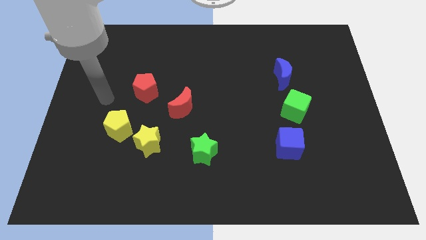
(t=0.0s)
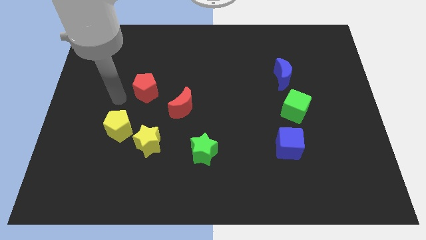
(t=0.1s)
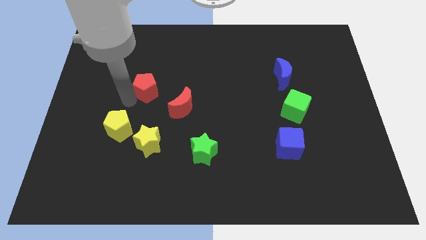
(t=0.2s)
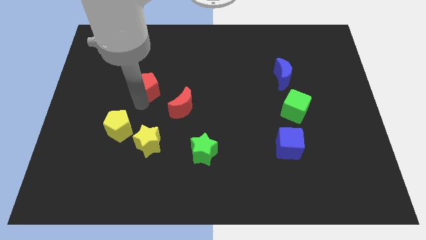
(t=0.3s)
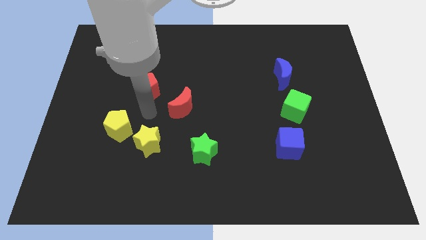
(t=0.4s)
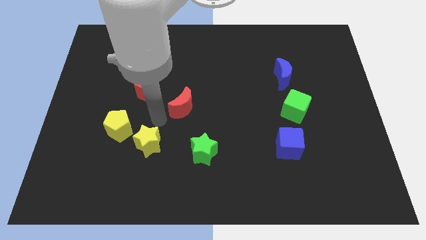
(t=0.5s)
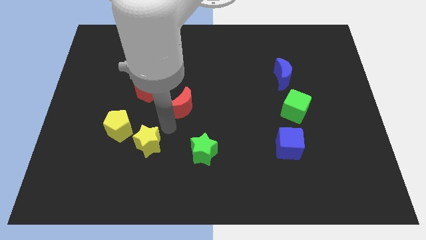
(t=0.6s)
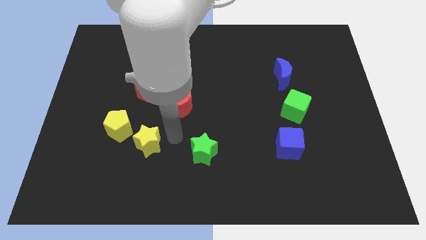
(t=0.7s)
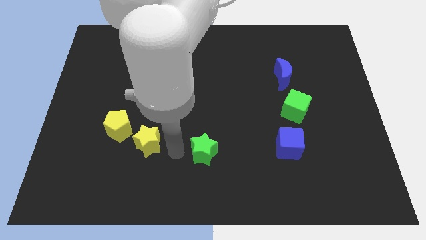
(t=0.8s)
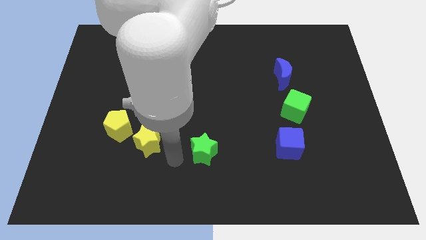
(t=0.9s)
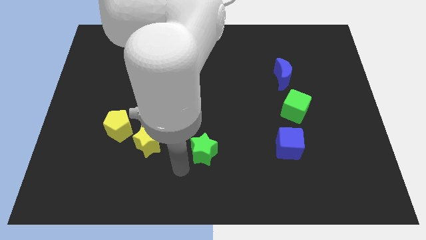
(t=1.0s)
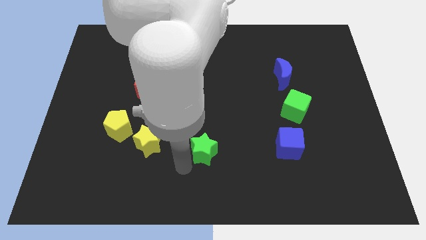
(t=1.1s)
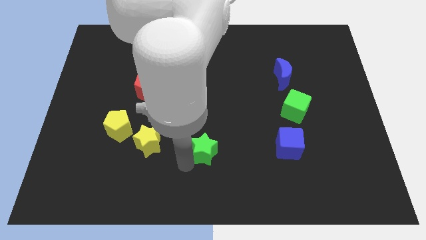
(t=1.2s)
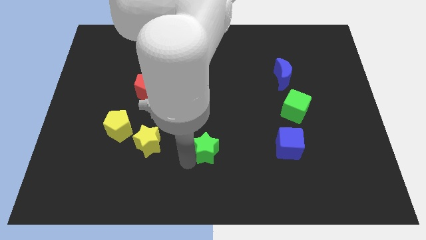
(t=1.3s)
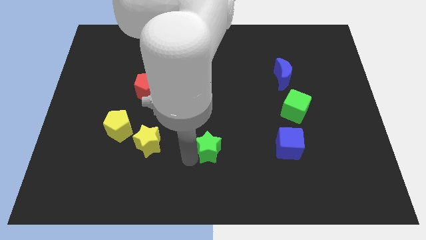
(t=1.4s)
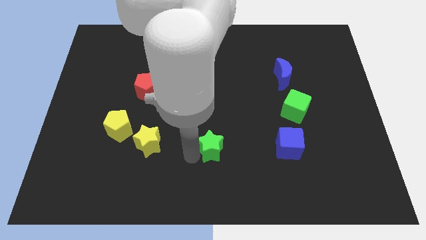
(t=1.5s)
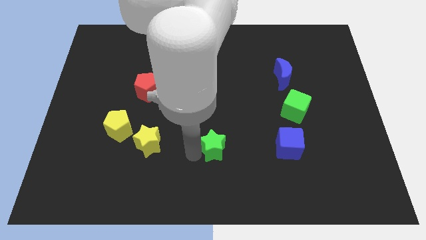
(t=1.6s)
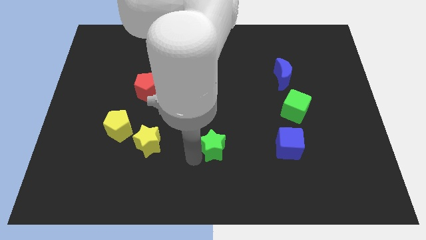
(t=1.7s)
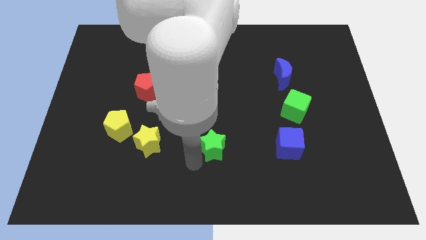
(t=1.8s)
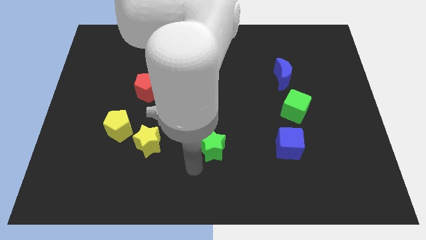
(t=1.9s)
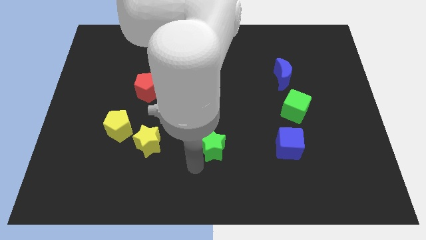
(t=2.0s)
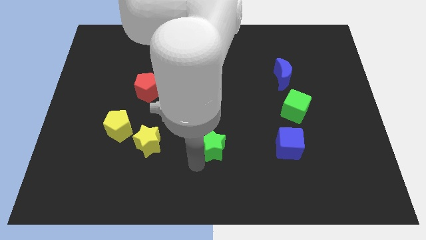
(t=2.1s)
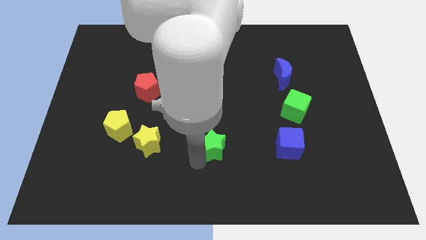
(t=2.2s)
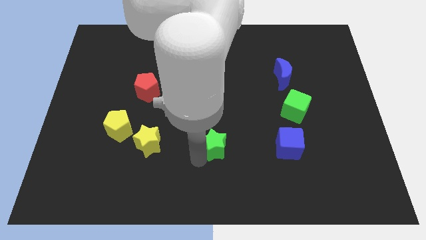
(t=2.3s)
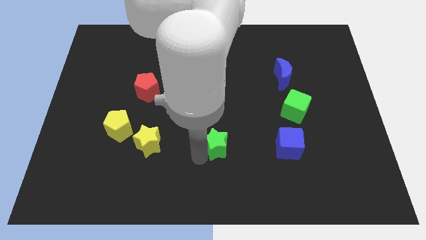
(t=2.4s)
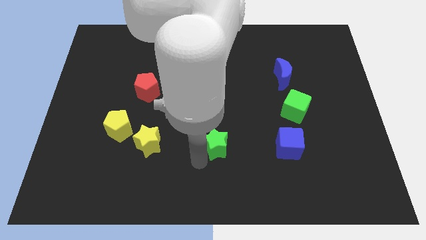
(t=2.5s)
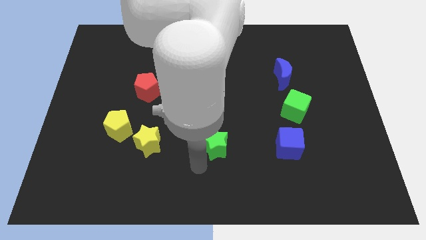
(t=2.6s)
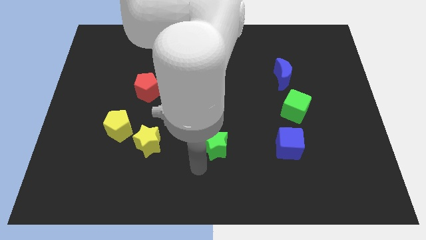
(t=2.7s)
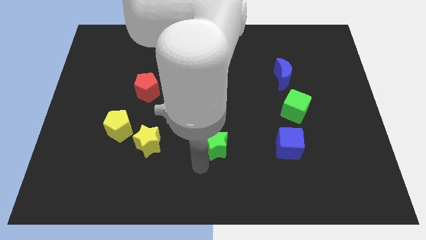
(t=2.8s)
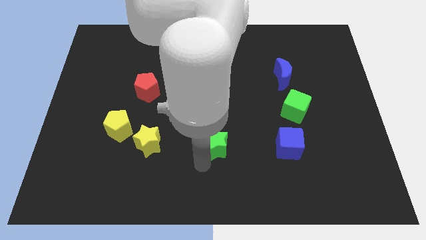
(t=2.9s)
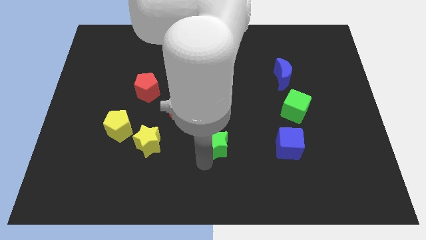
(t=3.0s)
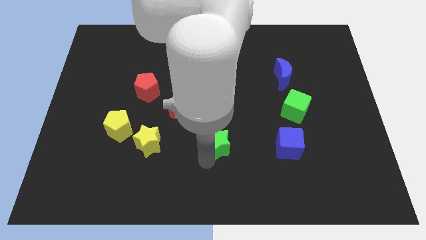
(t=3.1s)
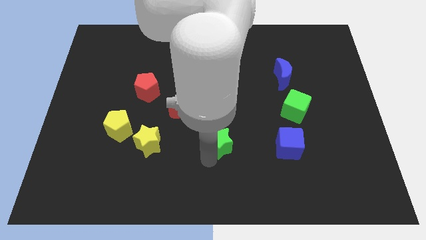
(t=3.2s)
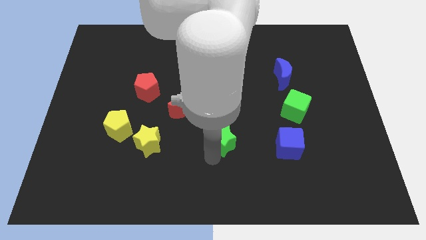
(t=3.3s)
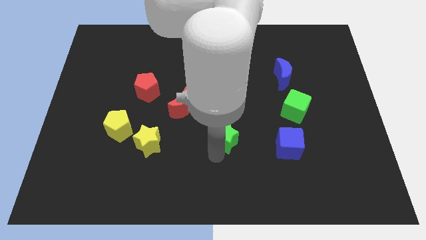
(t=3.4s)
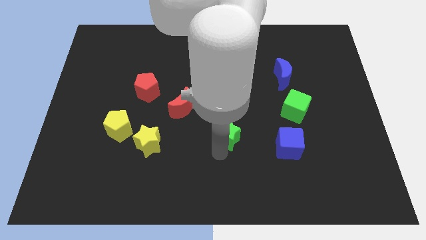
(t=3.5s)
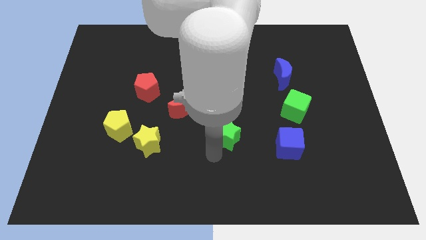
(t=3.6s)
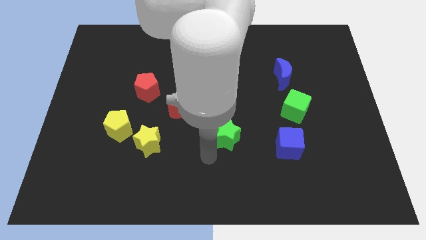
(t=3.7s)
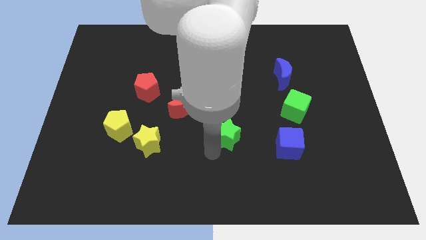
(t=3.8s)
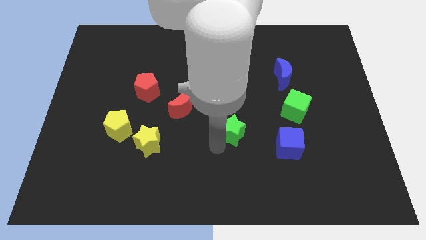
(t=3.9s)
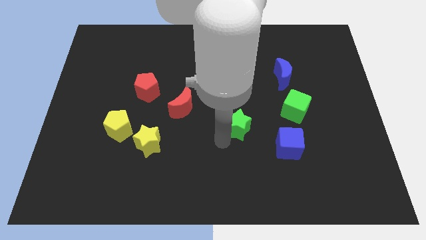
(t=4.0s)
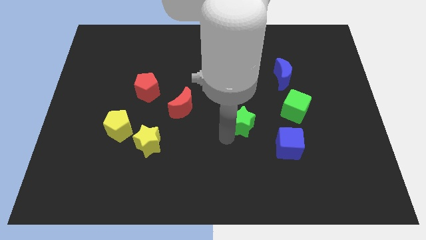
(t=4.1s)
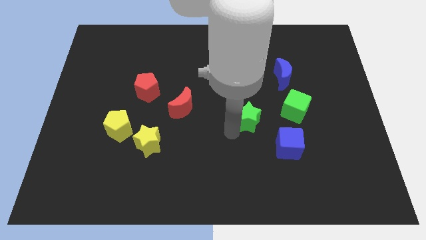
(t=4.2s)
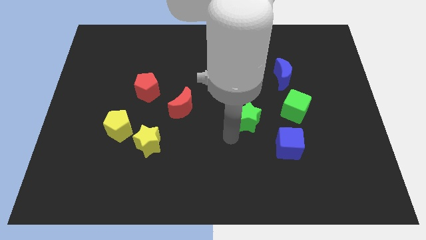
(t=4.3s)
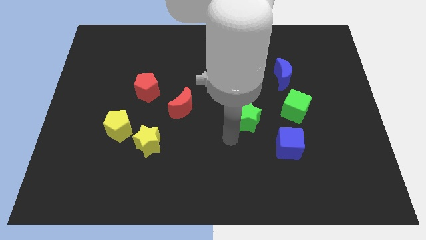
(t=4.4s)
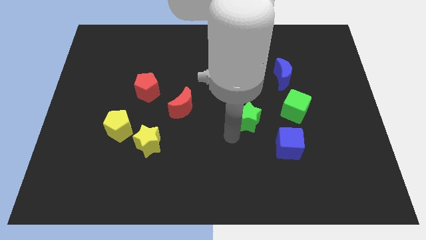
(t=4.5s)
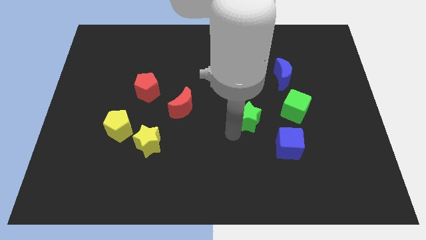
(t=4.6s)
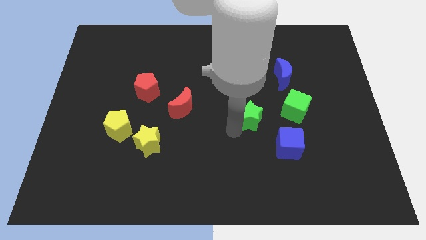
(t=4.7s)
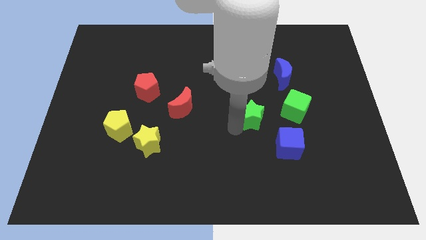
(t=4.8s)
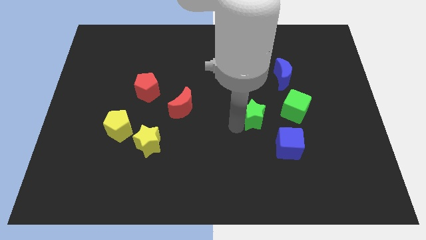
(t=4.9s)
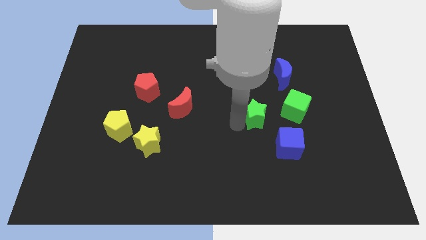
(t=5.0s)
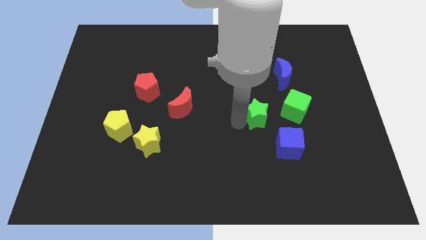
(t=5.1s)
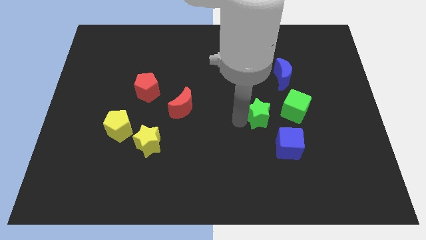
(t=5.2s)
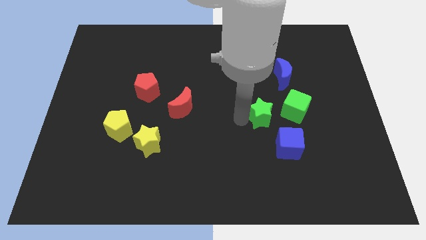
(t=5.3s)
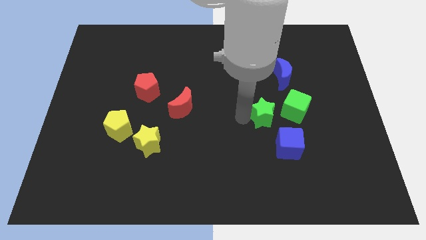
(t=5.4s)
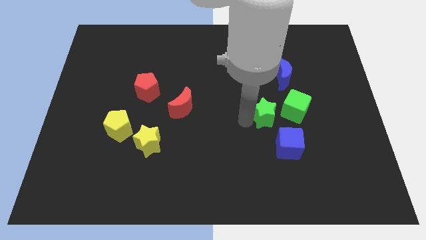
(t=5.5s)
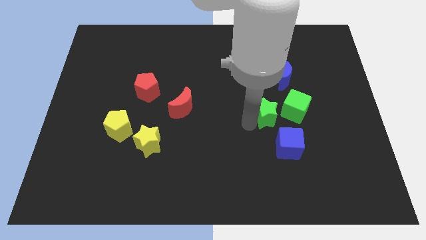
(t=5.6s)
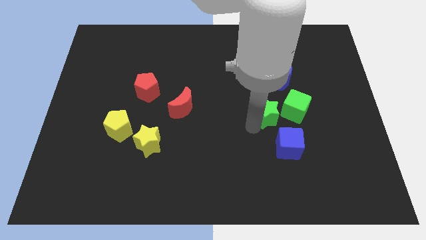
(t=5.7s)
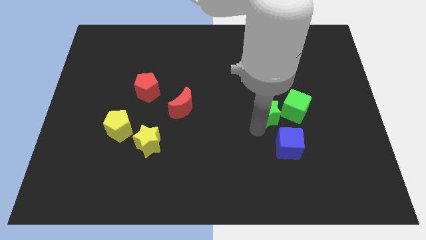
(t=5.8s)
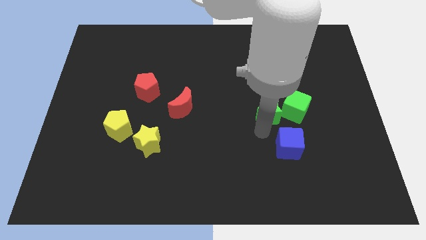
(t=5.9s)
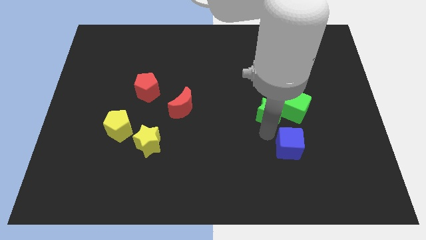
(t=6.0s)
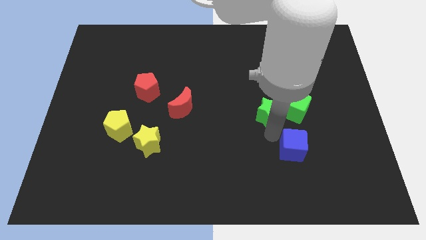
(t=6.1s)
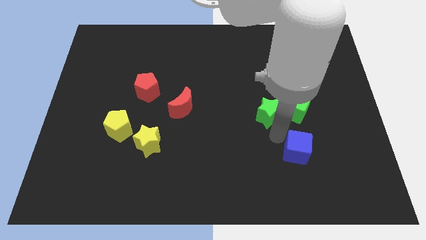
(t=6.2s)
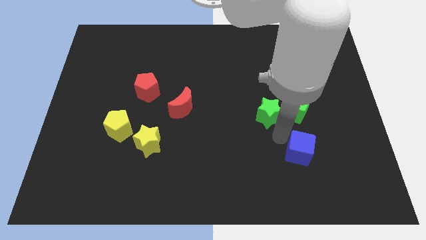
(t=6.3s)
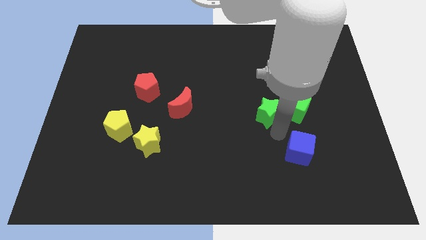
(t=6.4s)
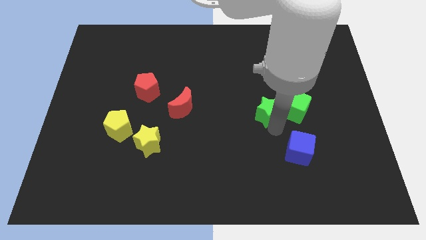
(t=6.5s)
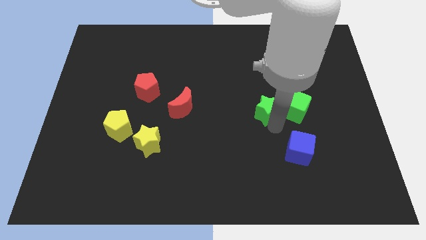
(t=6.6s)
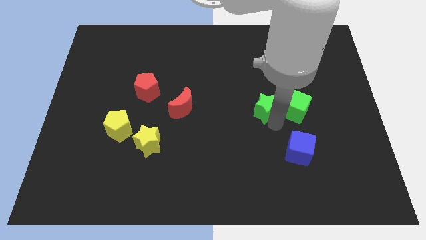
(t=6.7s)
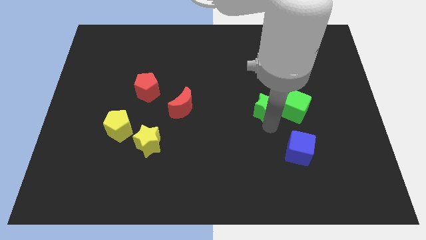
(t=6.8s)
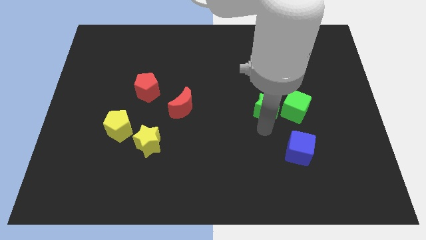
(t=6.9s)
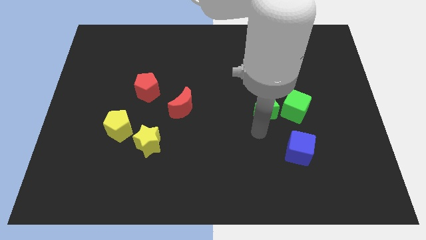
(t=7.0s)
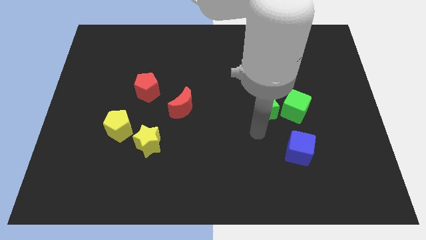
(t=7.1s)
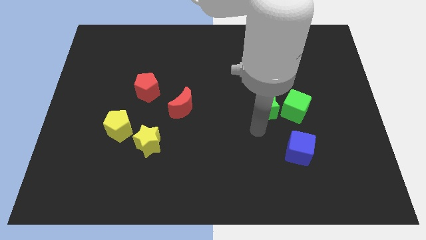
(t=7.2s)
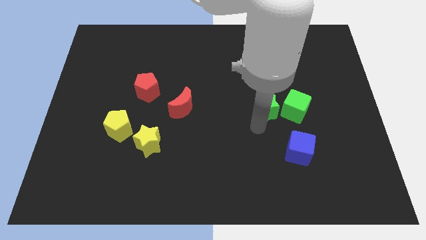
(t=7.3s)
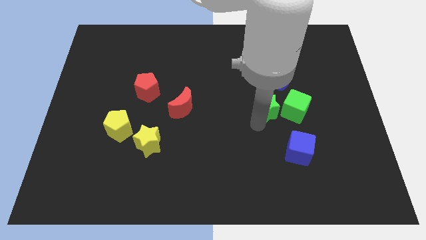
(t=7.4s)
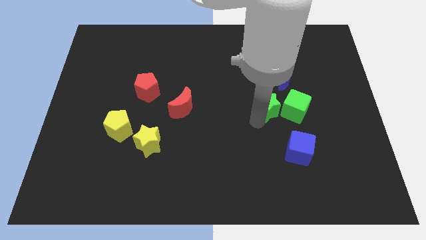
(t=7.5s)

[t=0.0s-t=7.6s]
put the green star to the top left side of the green cube

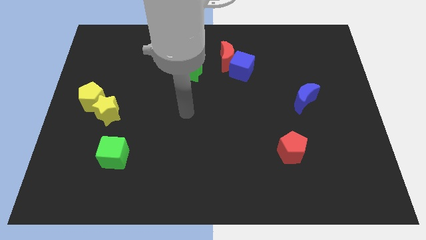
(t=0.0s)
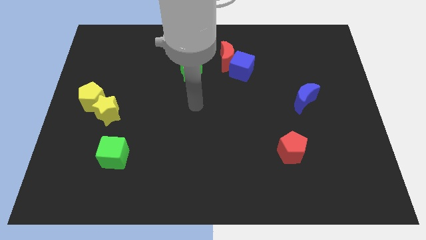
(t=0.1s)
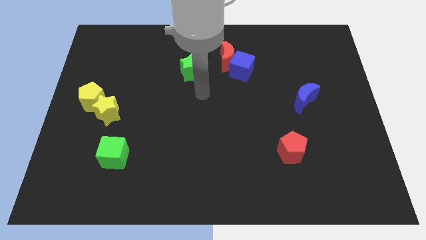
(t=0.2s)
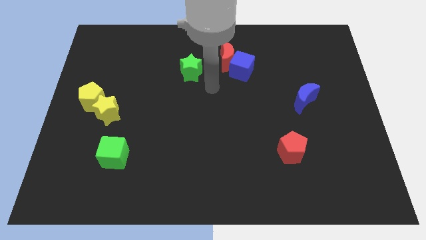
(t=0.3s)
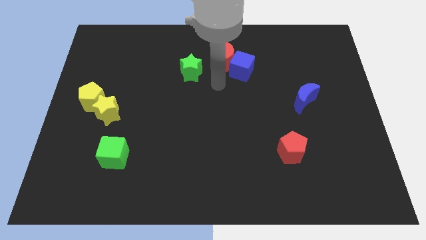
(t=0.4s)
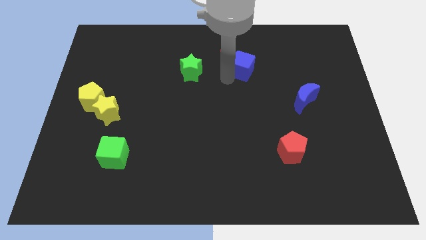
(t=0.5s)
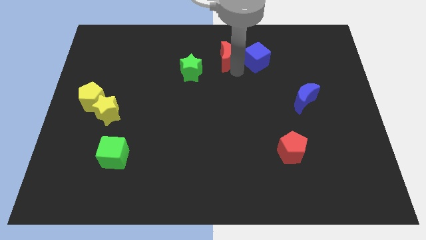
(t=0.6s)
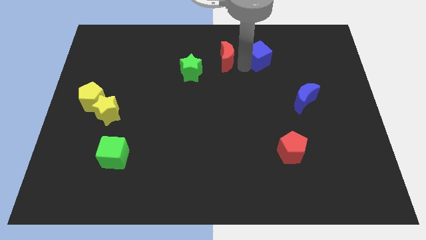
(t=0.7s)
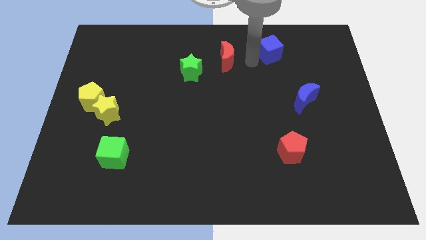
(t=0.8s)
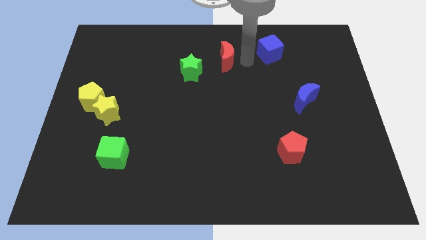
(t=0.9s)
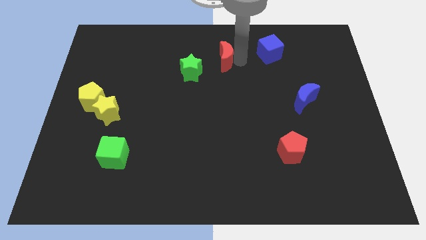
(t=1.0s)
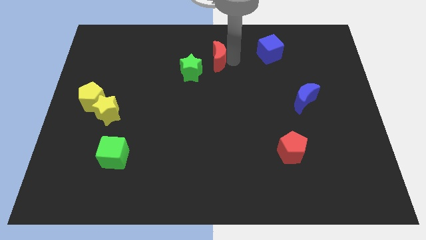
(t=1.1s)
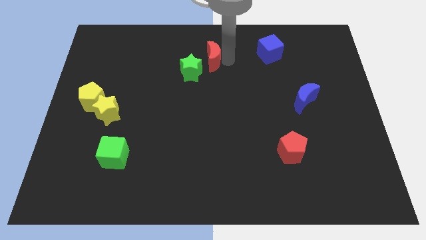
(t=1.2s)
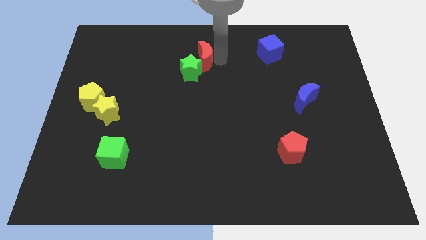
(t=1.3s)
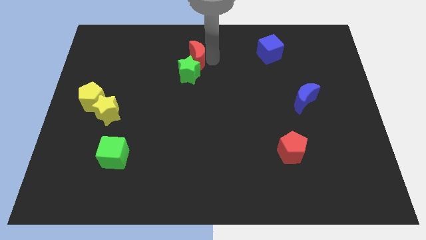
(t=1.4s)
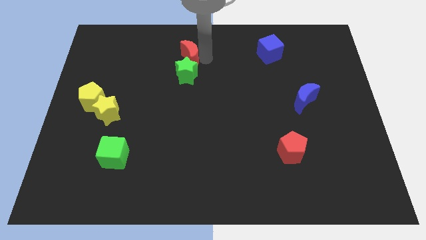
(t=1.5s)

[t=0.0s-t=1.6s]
push the red moon to the top left side of the green star
